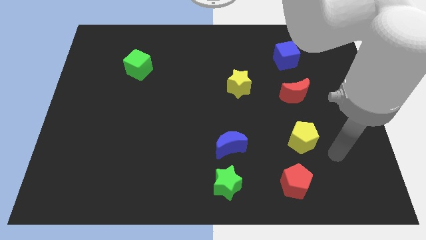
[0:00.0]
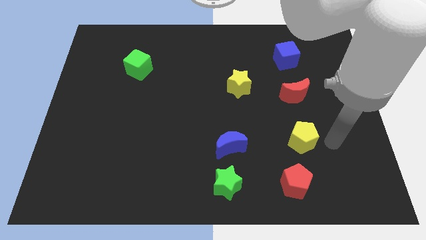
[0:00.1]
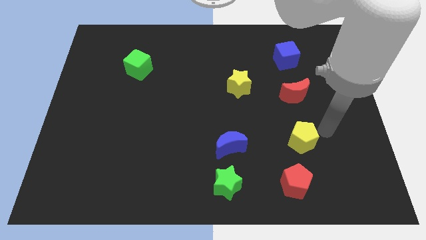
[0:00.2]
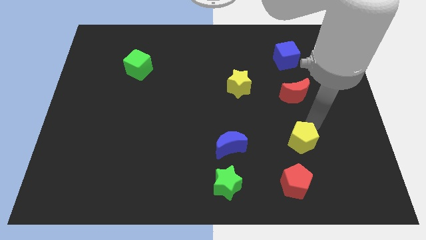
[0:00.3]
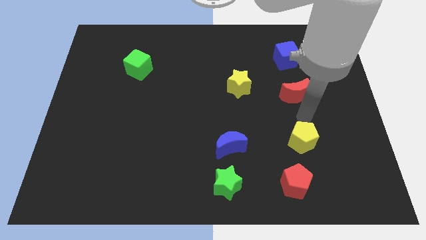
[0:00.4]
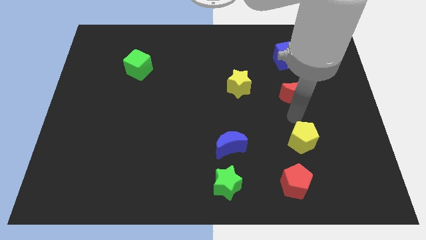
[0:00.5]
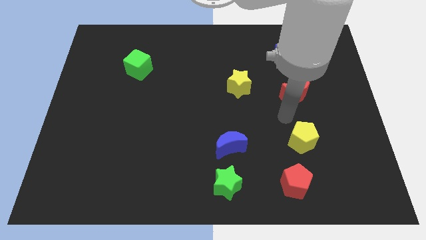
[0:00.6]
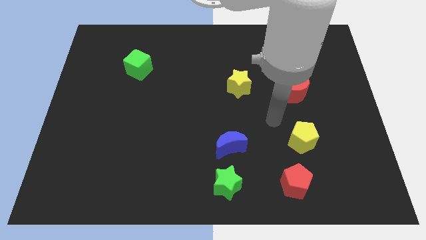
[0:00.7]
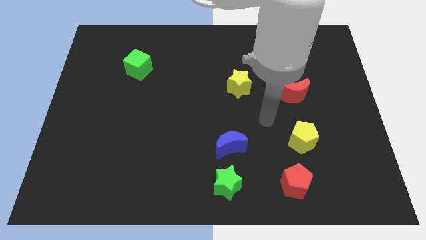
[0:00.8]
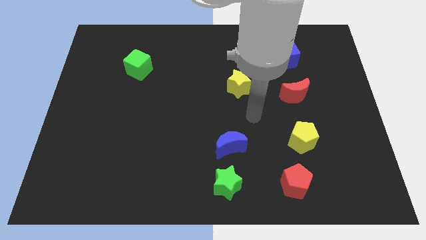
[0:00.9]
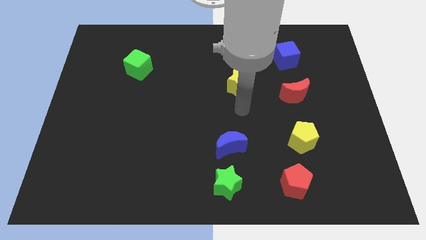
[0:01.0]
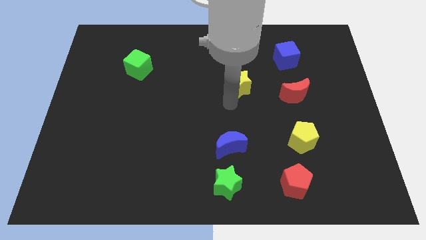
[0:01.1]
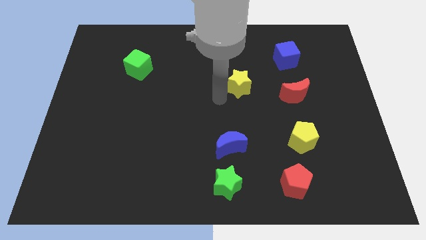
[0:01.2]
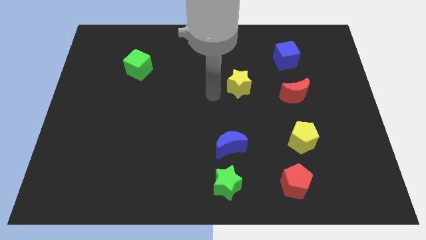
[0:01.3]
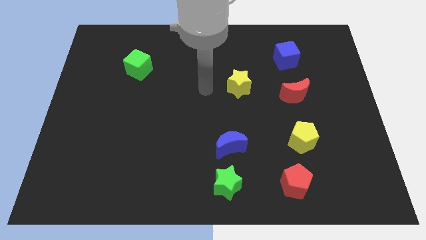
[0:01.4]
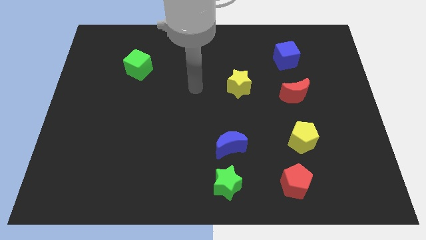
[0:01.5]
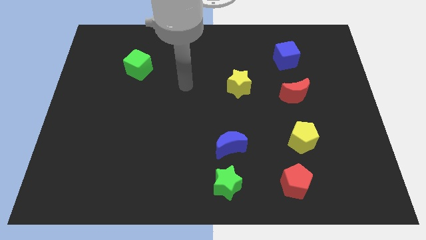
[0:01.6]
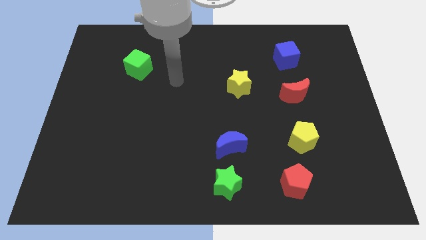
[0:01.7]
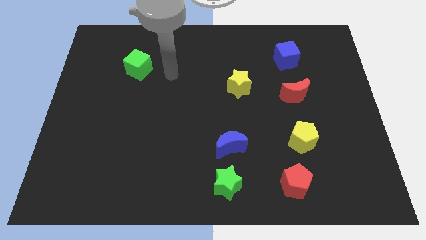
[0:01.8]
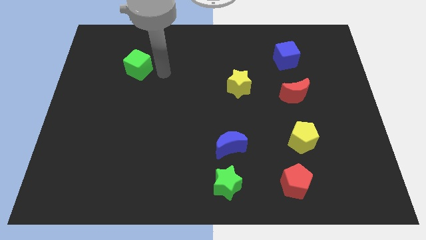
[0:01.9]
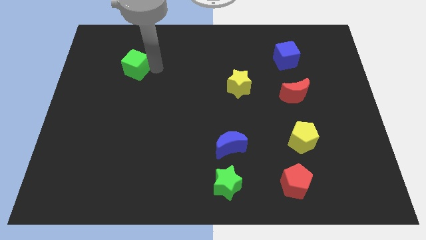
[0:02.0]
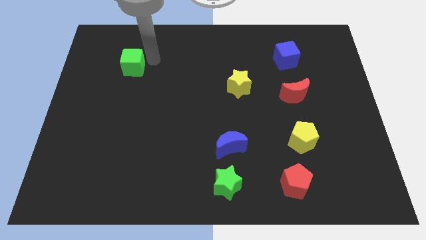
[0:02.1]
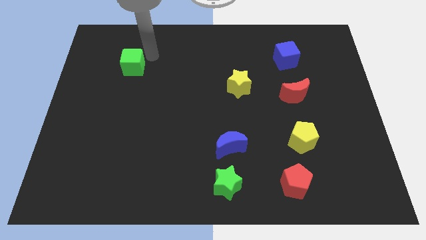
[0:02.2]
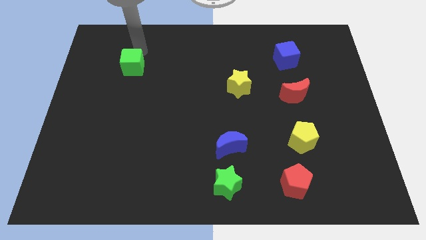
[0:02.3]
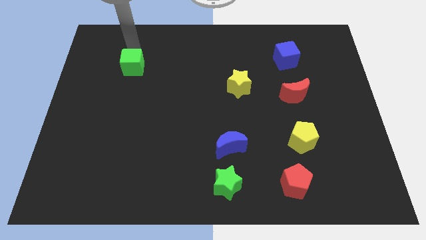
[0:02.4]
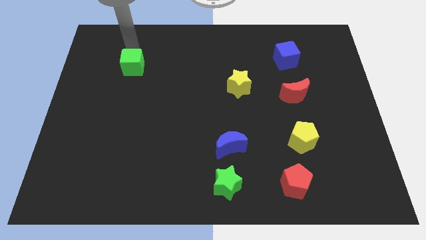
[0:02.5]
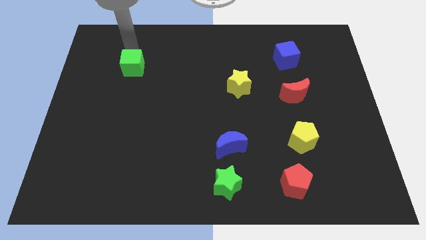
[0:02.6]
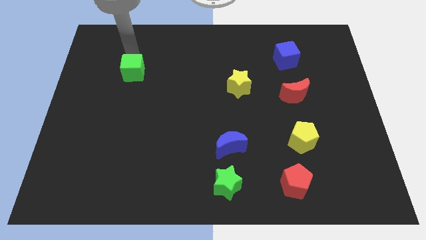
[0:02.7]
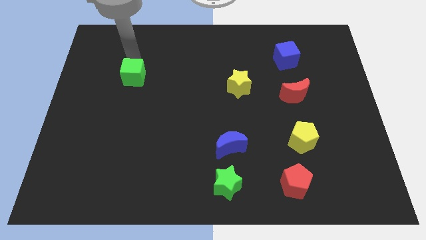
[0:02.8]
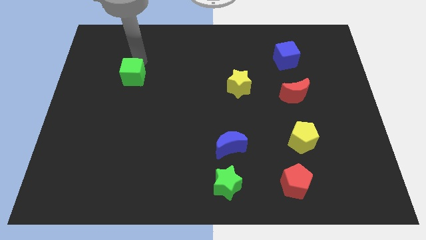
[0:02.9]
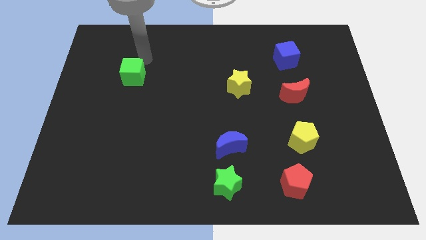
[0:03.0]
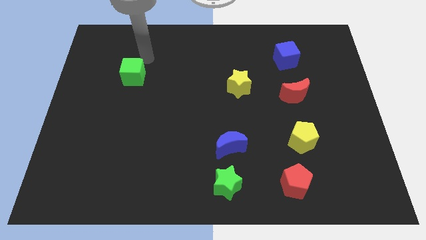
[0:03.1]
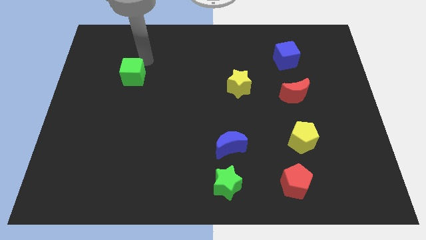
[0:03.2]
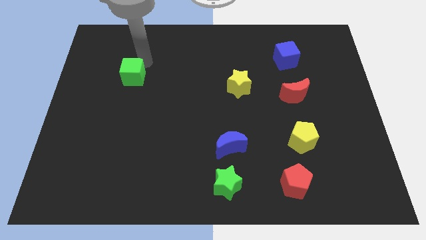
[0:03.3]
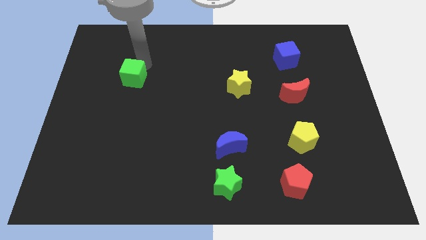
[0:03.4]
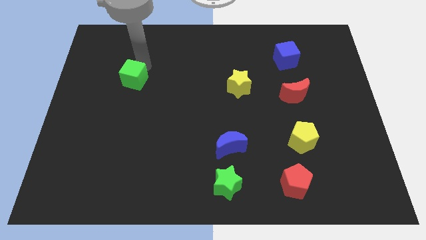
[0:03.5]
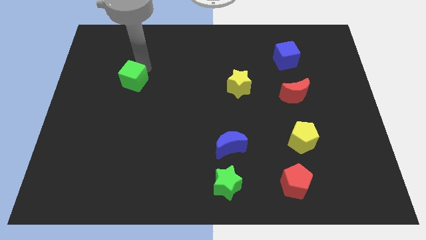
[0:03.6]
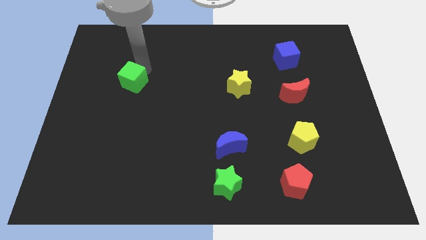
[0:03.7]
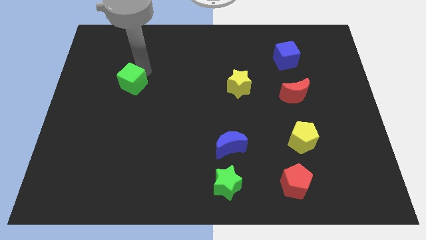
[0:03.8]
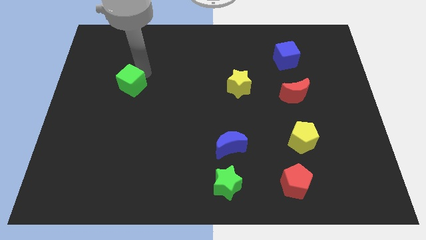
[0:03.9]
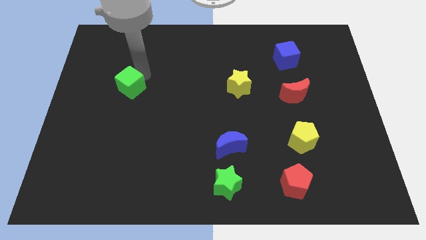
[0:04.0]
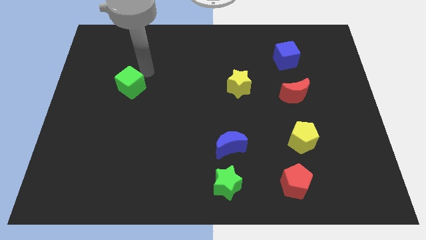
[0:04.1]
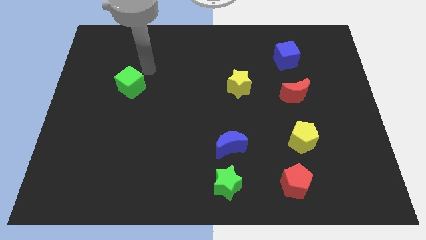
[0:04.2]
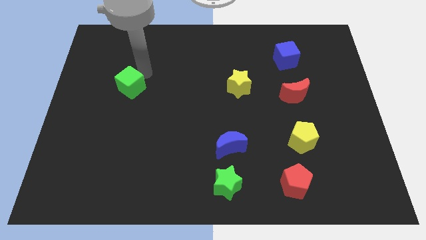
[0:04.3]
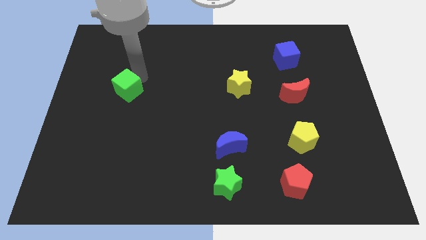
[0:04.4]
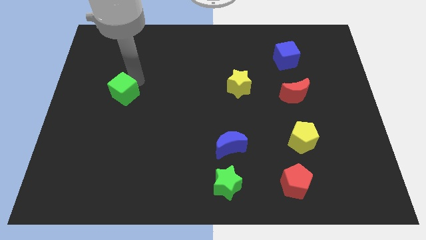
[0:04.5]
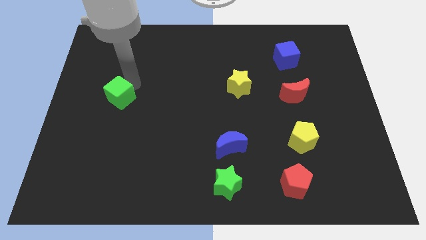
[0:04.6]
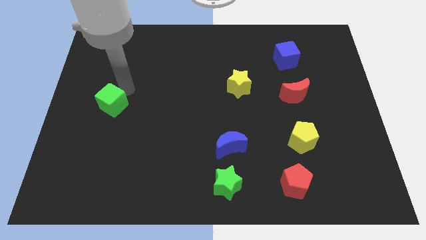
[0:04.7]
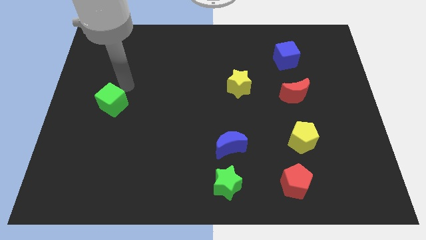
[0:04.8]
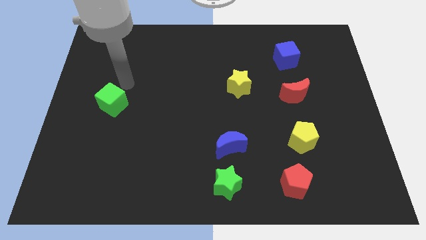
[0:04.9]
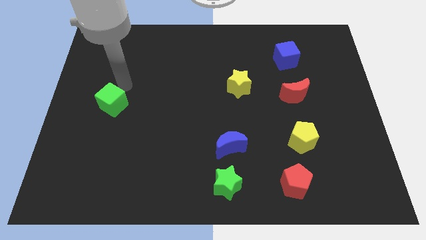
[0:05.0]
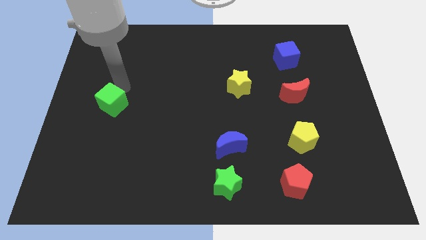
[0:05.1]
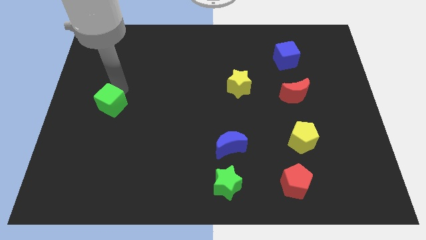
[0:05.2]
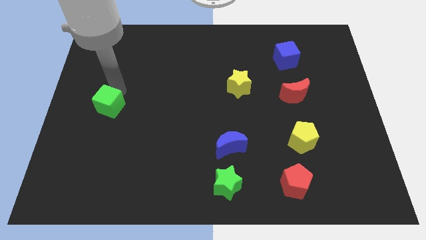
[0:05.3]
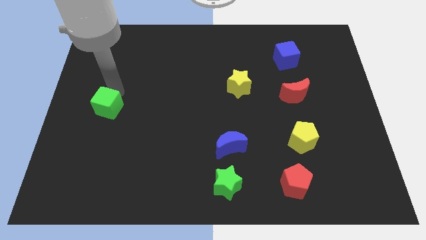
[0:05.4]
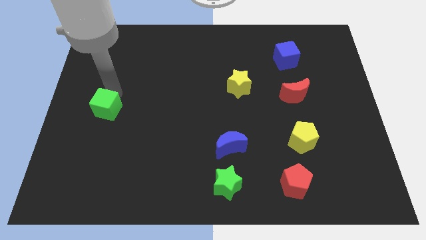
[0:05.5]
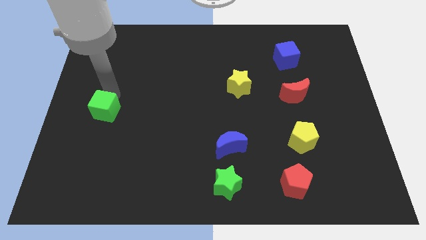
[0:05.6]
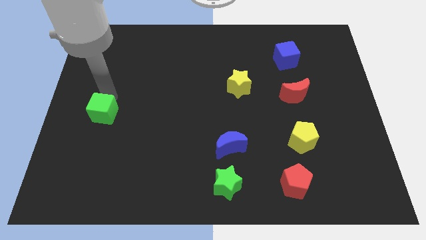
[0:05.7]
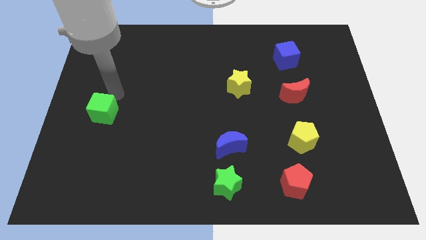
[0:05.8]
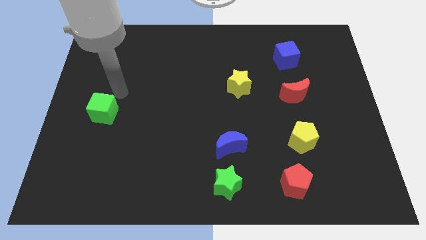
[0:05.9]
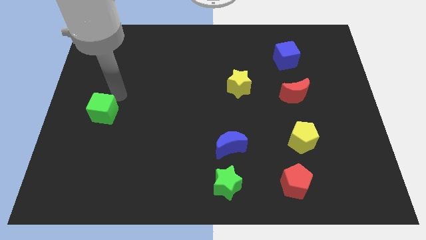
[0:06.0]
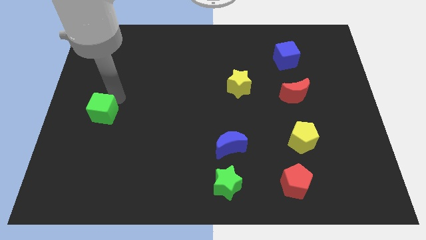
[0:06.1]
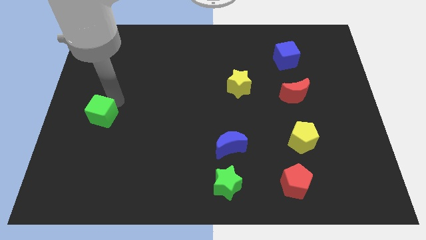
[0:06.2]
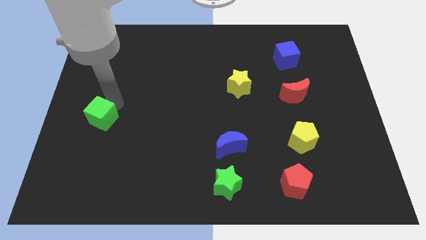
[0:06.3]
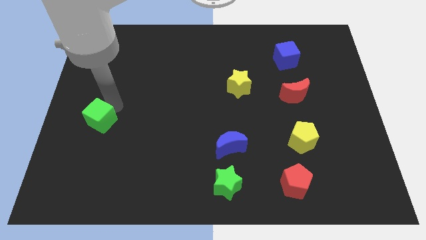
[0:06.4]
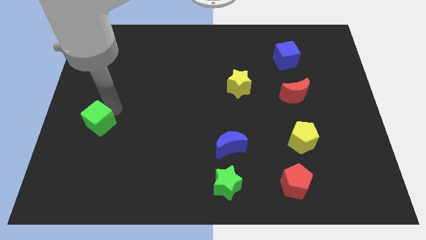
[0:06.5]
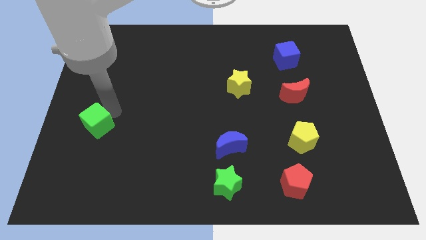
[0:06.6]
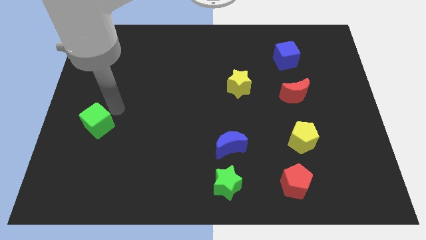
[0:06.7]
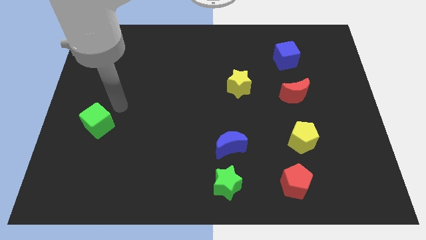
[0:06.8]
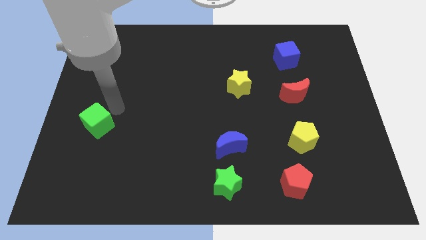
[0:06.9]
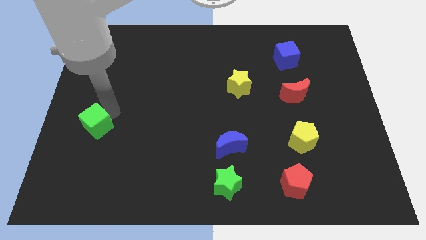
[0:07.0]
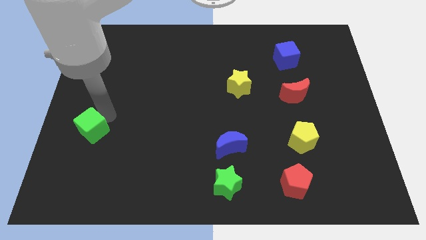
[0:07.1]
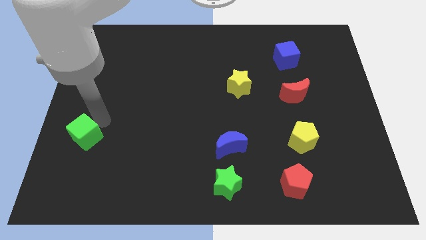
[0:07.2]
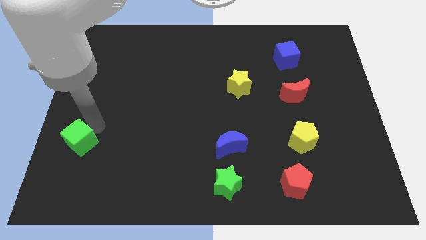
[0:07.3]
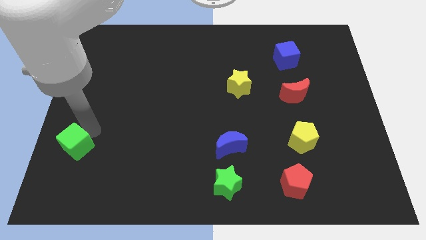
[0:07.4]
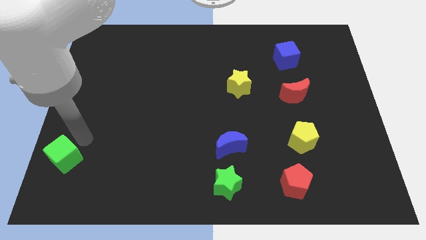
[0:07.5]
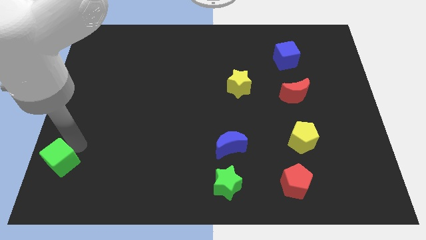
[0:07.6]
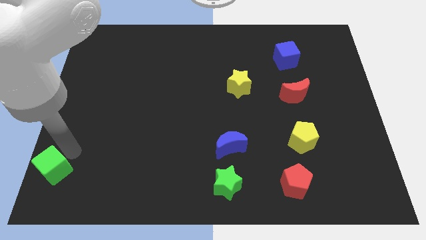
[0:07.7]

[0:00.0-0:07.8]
slide the green cube to the bottom left of the board
